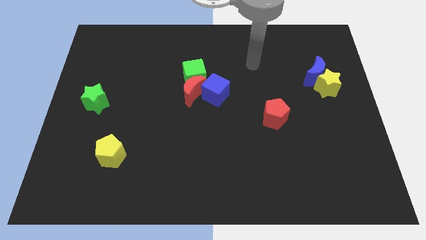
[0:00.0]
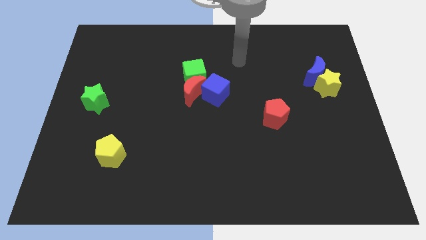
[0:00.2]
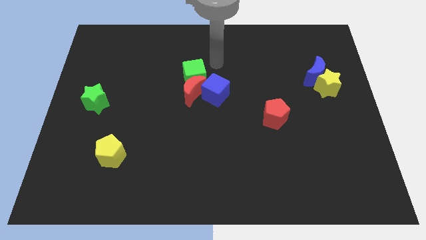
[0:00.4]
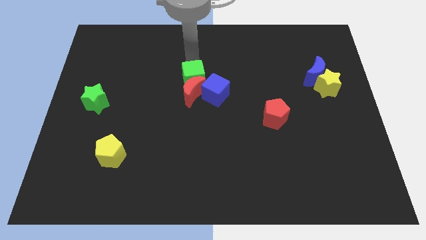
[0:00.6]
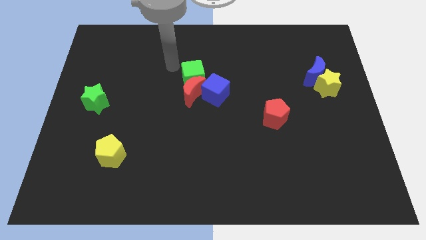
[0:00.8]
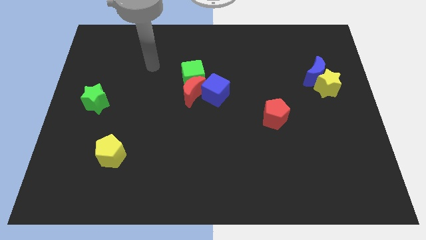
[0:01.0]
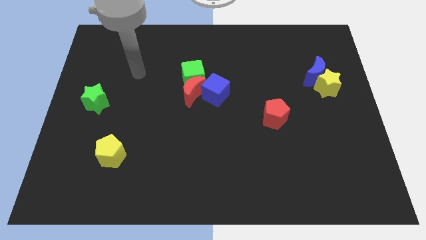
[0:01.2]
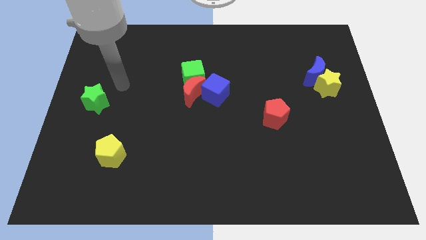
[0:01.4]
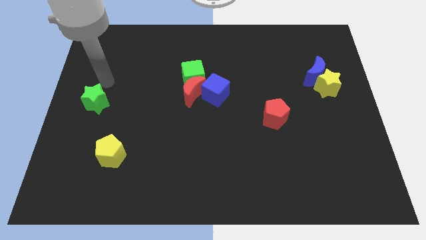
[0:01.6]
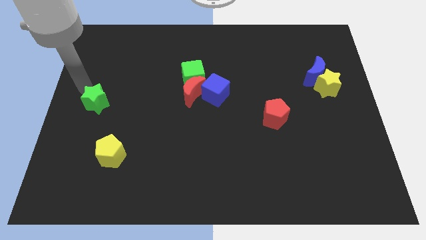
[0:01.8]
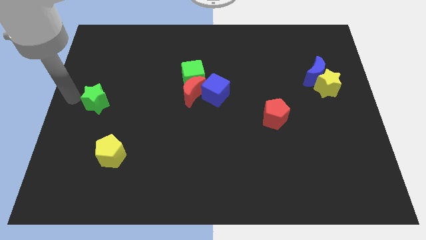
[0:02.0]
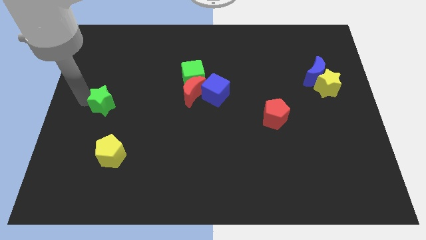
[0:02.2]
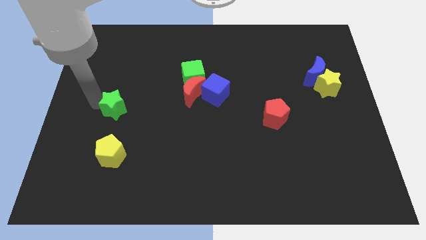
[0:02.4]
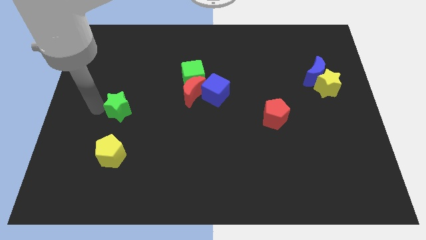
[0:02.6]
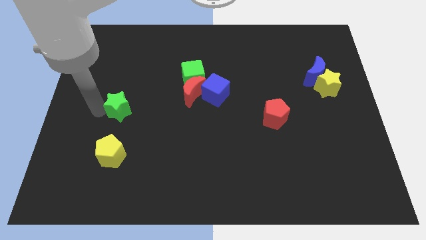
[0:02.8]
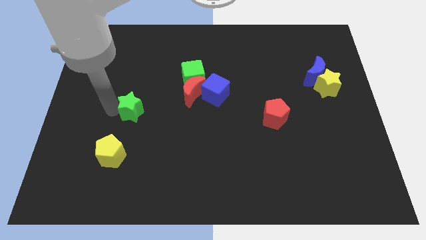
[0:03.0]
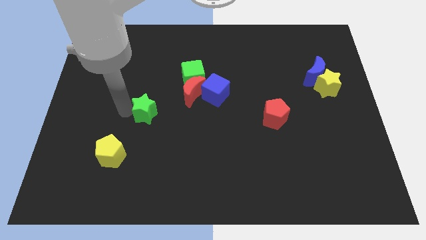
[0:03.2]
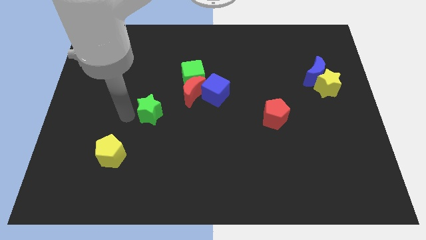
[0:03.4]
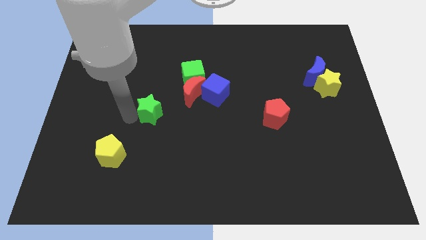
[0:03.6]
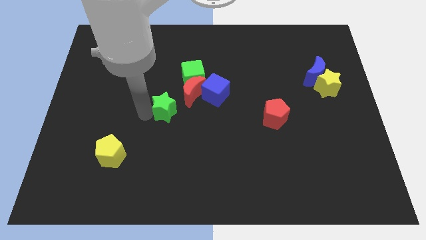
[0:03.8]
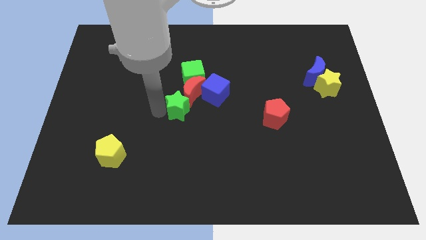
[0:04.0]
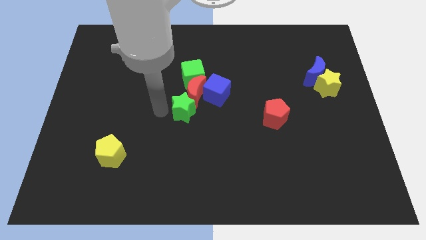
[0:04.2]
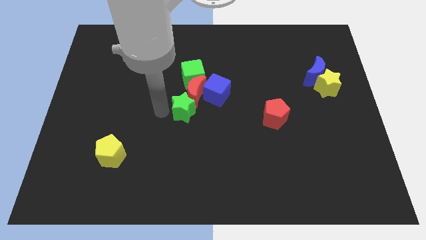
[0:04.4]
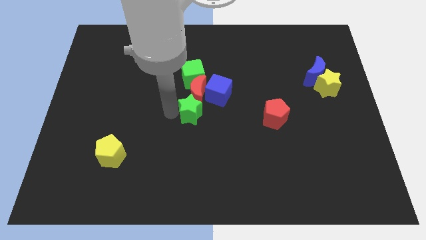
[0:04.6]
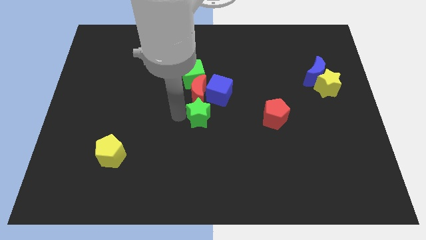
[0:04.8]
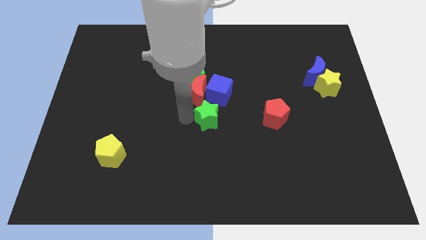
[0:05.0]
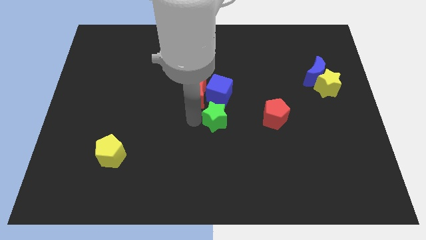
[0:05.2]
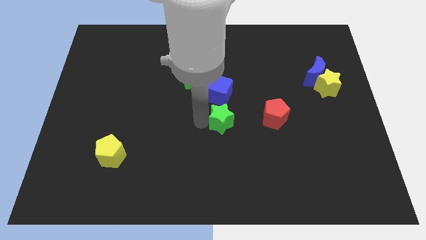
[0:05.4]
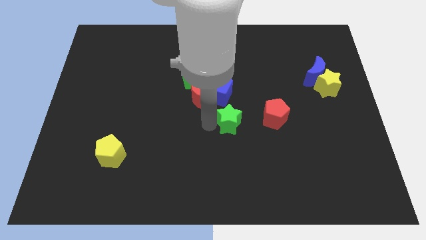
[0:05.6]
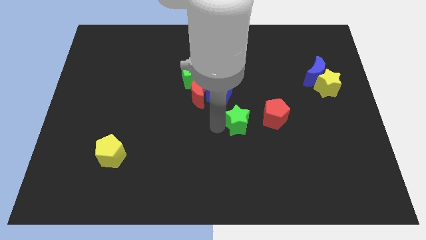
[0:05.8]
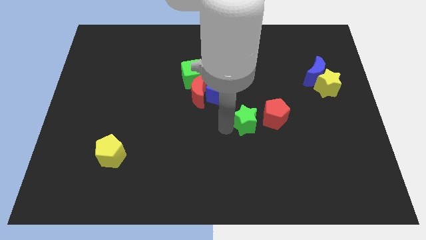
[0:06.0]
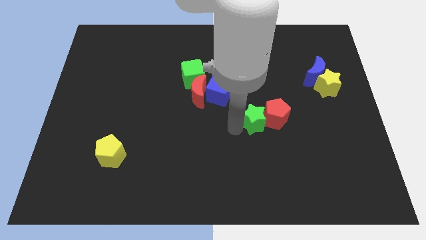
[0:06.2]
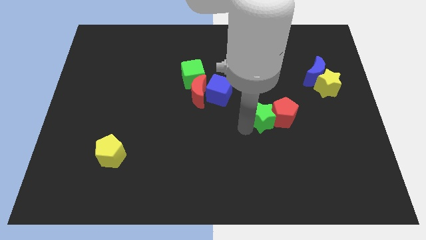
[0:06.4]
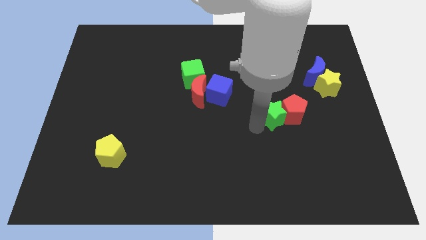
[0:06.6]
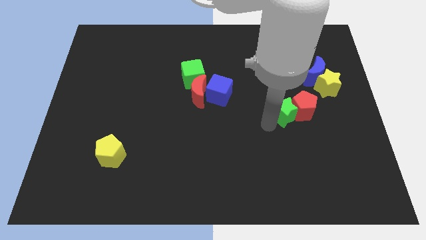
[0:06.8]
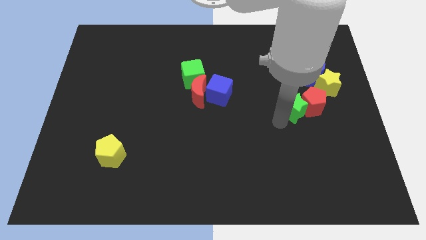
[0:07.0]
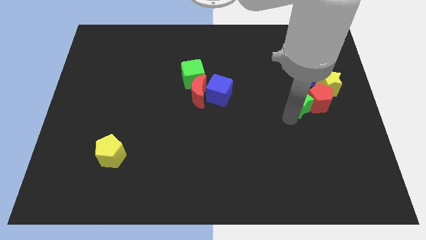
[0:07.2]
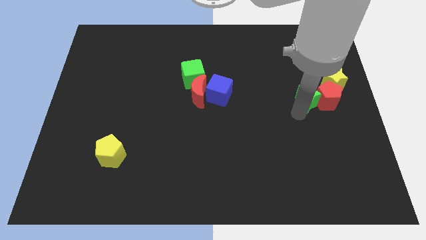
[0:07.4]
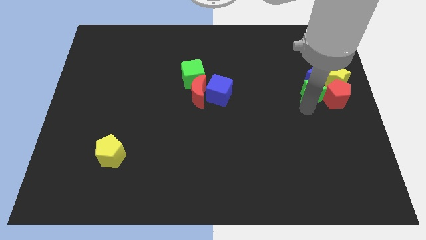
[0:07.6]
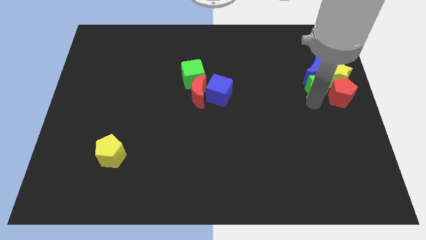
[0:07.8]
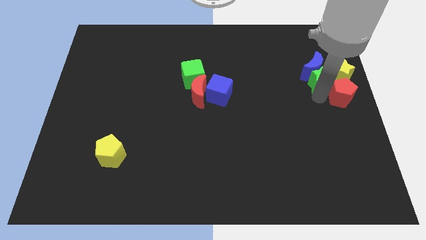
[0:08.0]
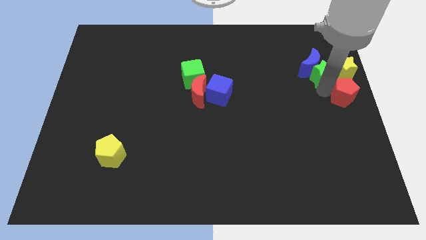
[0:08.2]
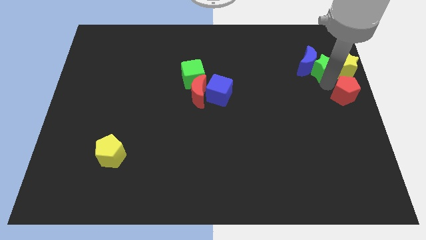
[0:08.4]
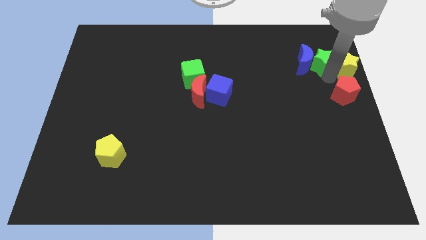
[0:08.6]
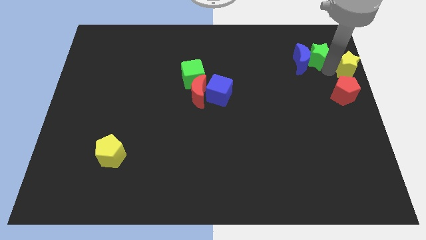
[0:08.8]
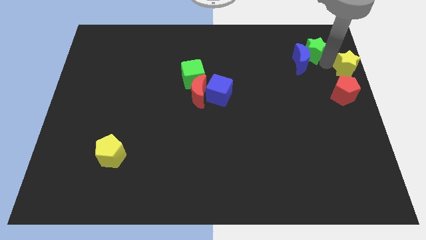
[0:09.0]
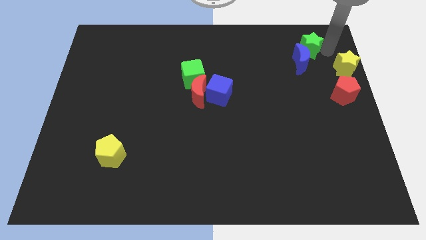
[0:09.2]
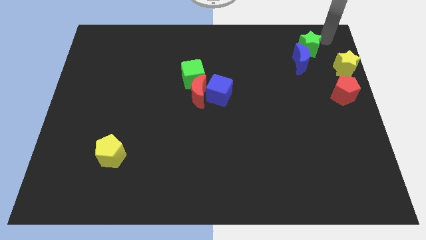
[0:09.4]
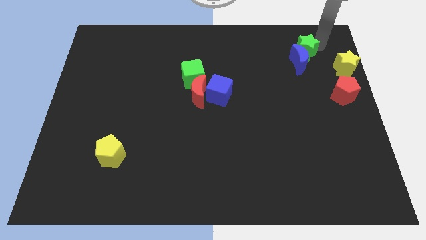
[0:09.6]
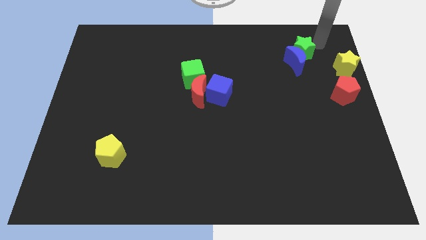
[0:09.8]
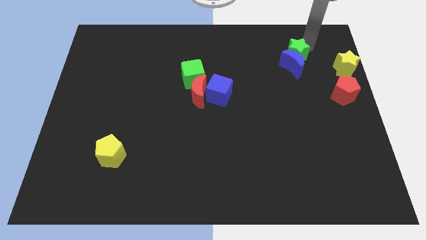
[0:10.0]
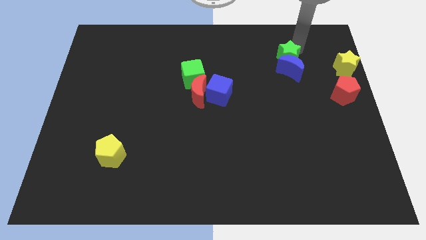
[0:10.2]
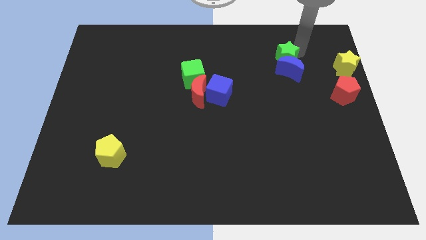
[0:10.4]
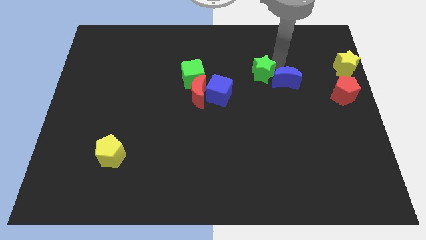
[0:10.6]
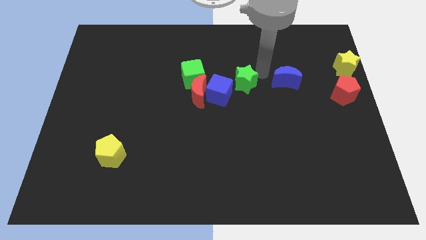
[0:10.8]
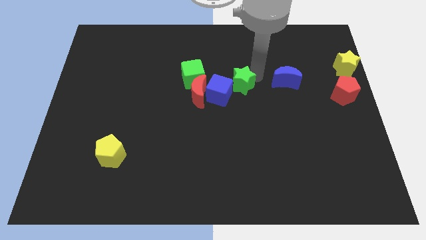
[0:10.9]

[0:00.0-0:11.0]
slide the green star to the blue cube

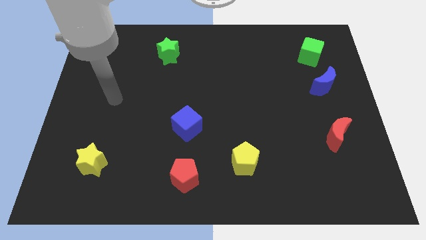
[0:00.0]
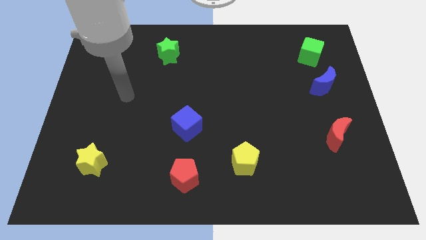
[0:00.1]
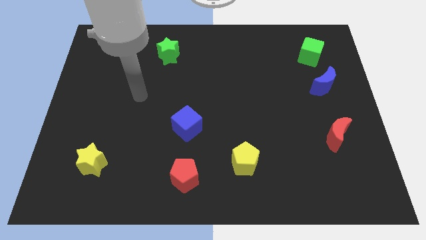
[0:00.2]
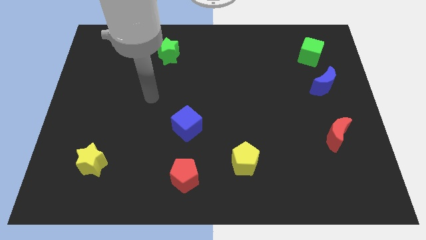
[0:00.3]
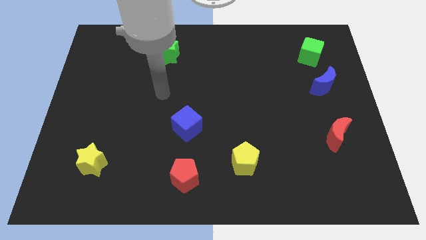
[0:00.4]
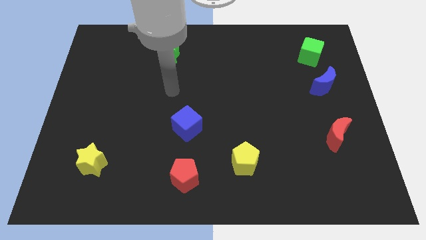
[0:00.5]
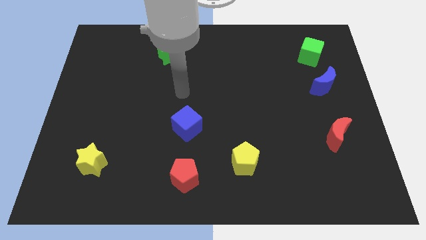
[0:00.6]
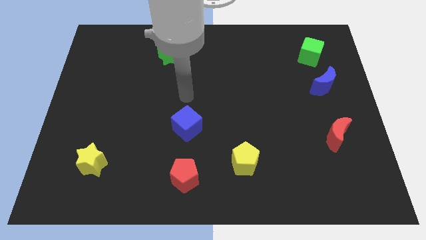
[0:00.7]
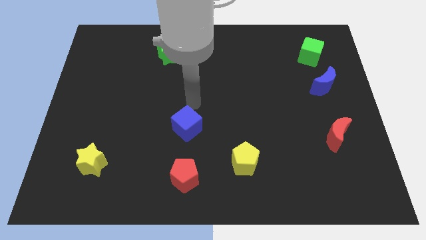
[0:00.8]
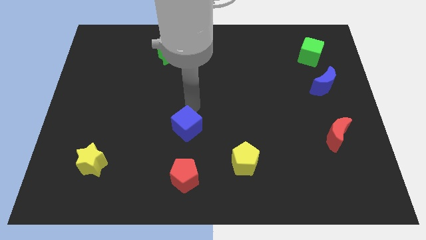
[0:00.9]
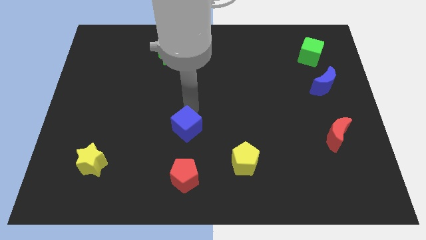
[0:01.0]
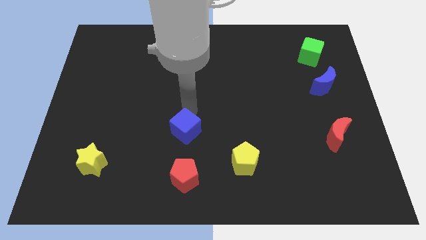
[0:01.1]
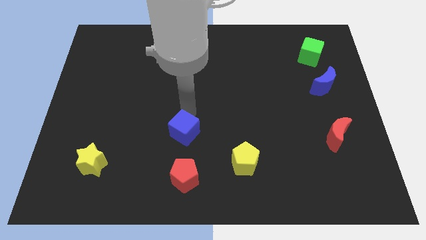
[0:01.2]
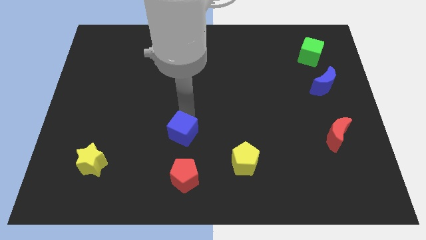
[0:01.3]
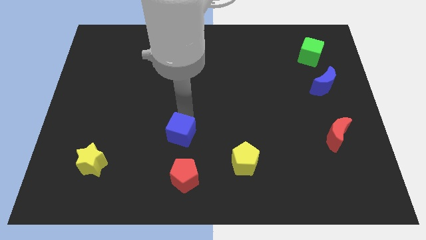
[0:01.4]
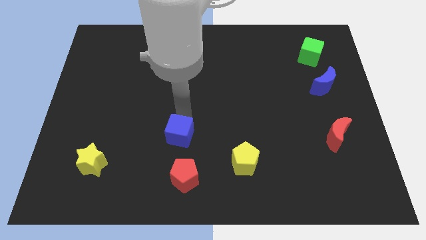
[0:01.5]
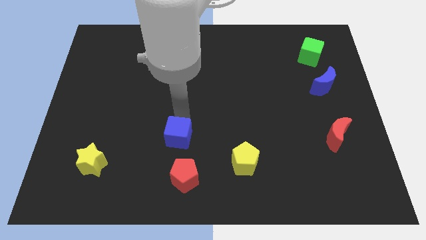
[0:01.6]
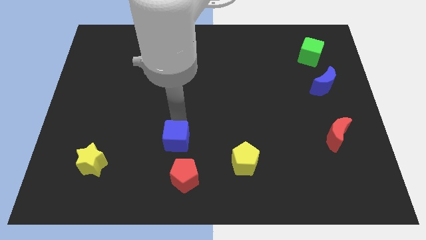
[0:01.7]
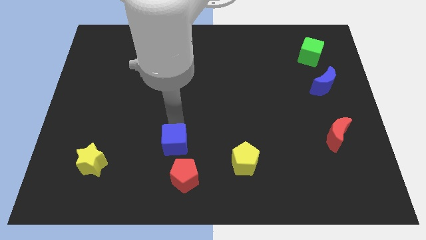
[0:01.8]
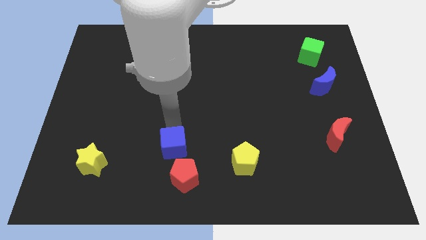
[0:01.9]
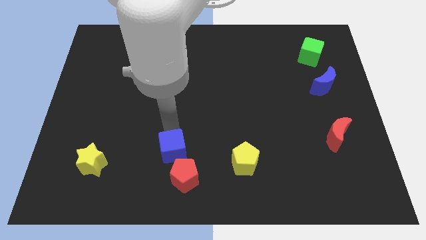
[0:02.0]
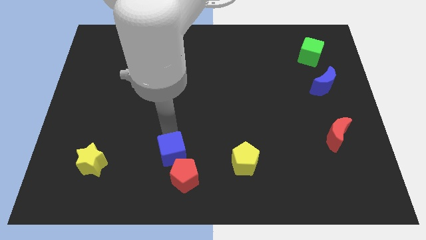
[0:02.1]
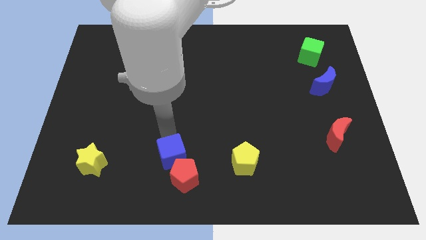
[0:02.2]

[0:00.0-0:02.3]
move the blue cube towards the red pentagon
